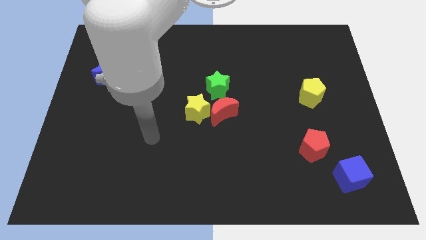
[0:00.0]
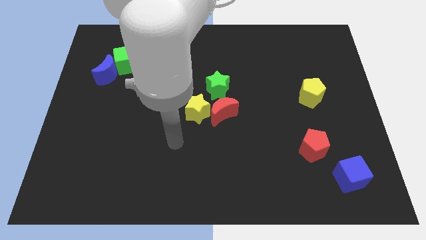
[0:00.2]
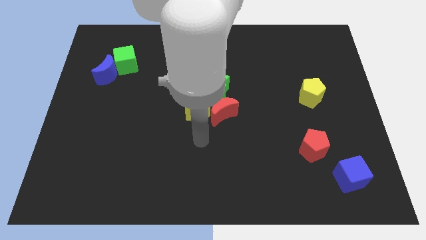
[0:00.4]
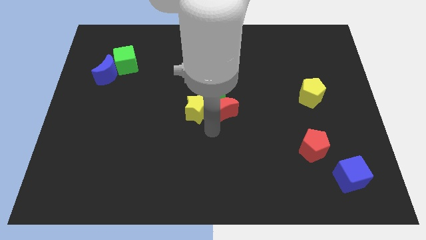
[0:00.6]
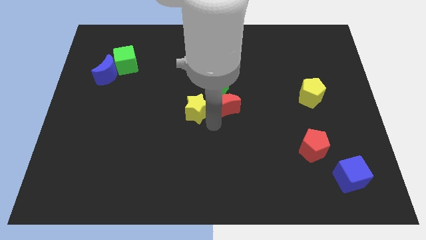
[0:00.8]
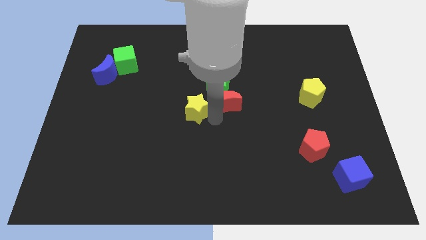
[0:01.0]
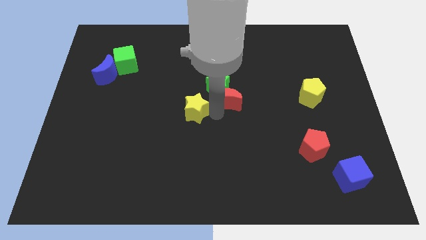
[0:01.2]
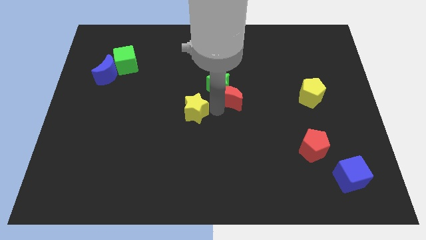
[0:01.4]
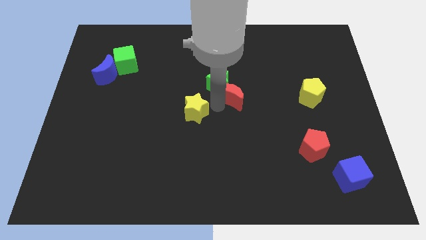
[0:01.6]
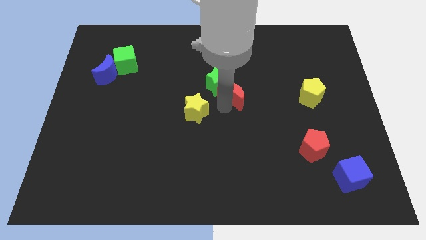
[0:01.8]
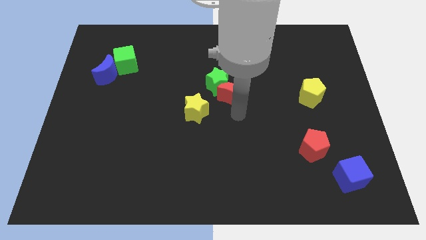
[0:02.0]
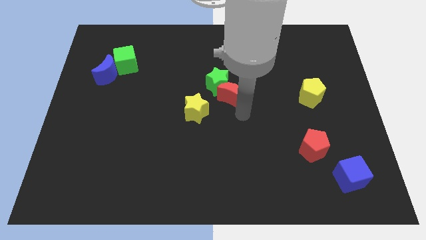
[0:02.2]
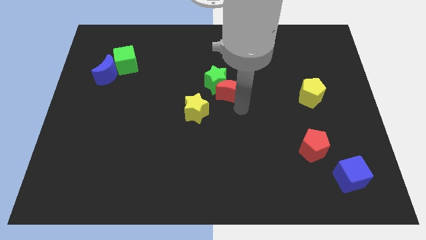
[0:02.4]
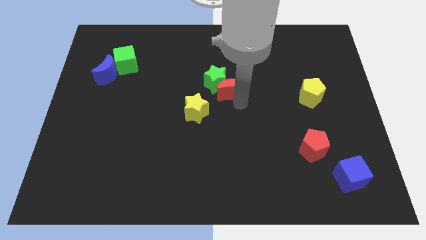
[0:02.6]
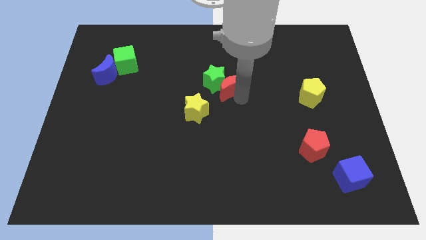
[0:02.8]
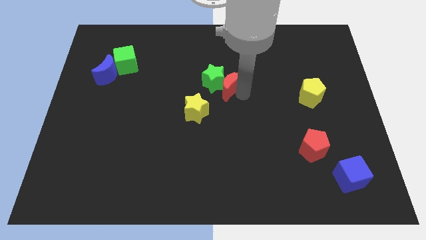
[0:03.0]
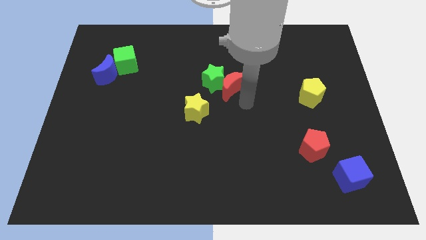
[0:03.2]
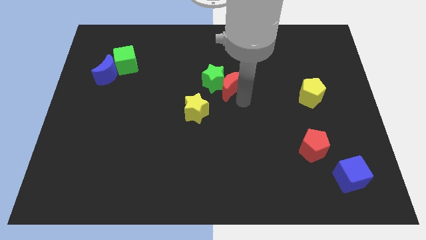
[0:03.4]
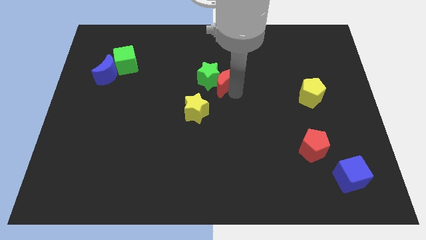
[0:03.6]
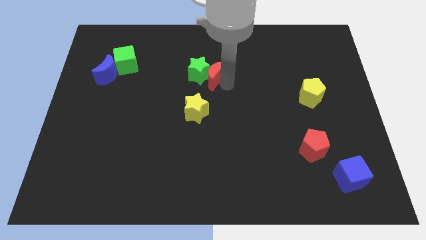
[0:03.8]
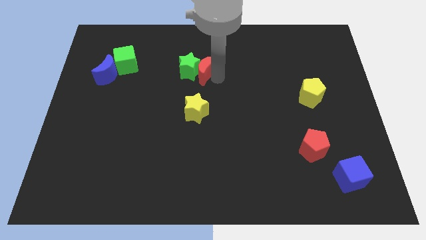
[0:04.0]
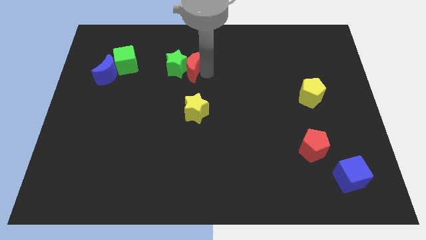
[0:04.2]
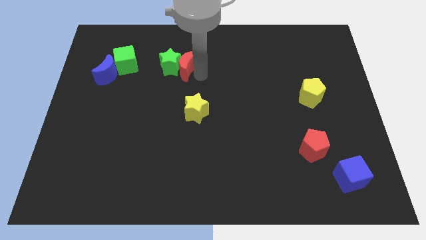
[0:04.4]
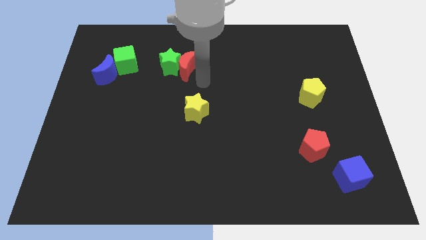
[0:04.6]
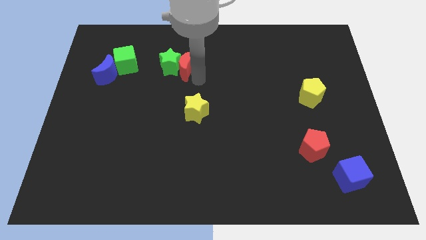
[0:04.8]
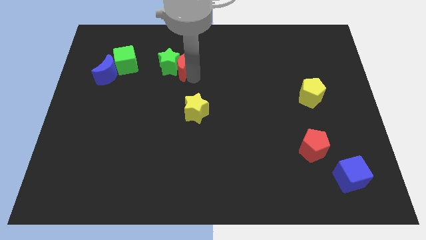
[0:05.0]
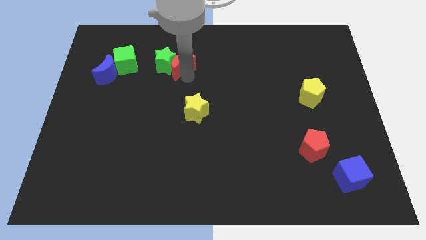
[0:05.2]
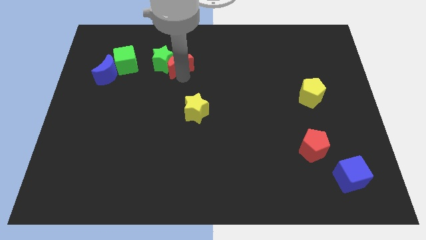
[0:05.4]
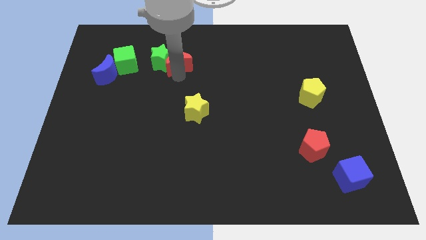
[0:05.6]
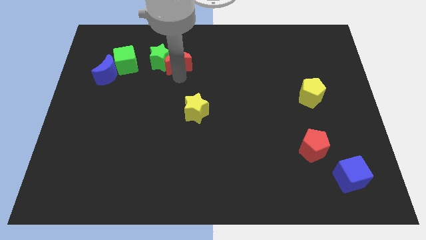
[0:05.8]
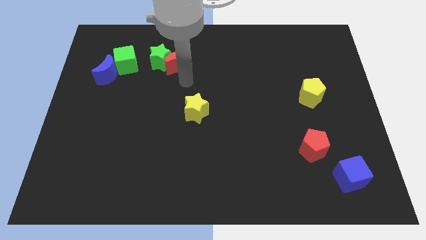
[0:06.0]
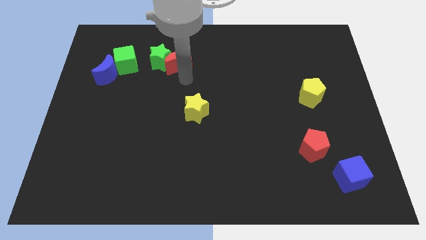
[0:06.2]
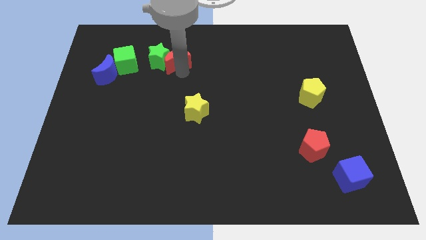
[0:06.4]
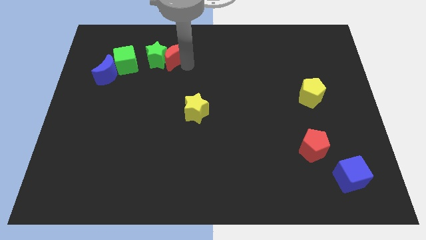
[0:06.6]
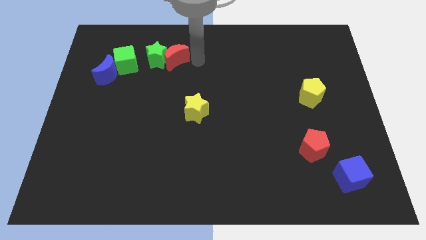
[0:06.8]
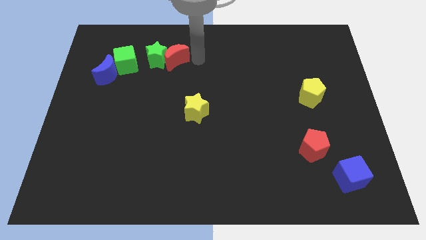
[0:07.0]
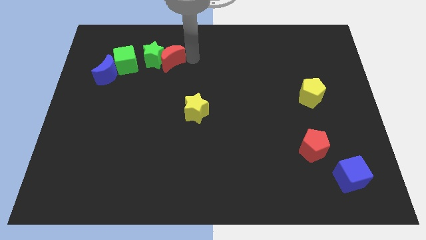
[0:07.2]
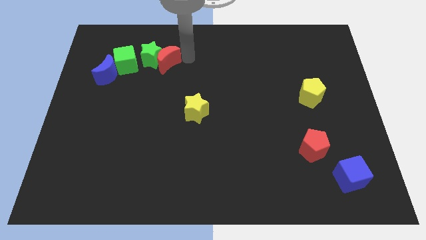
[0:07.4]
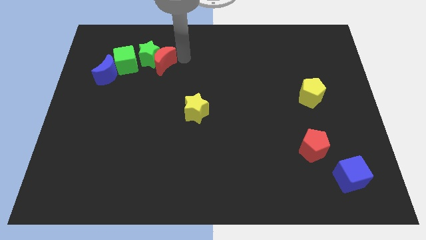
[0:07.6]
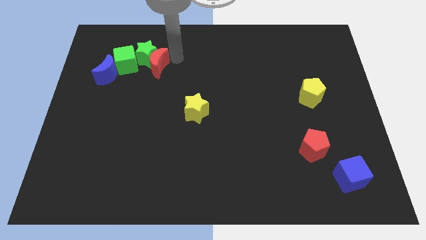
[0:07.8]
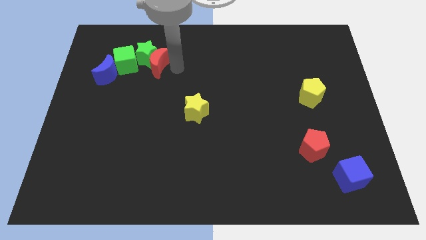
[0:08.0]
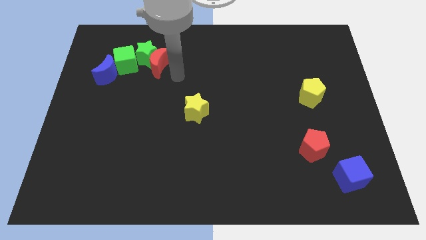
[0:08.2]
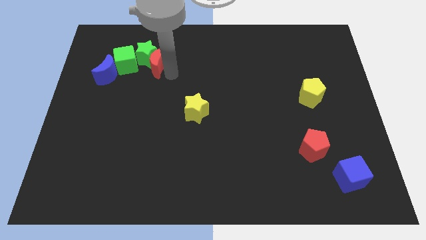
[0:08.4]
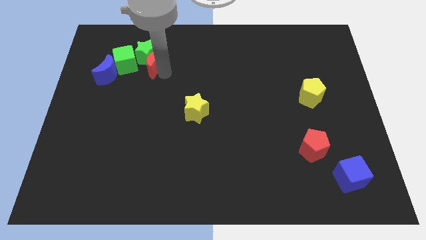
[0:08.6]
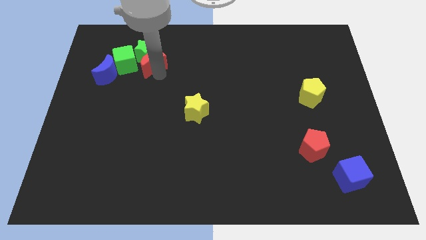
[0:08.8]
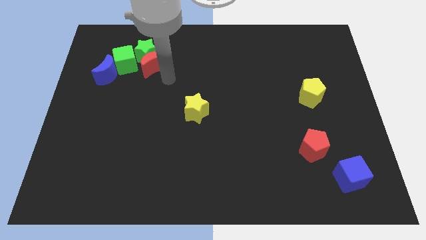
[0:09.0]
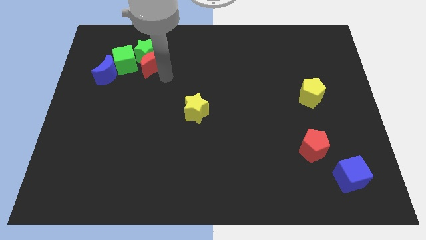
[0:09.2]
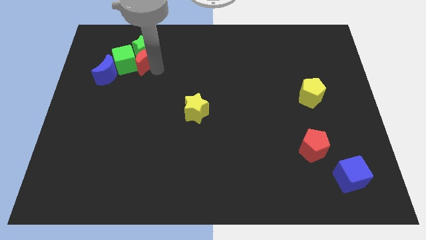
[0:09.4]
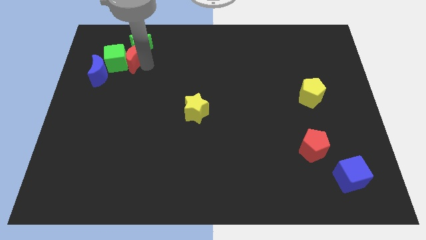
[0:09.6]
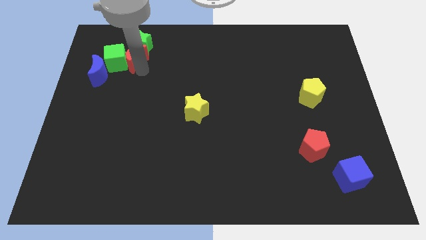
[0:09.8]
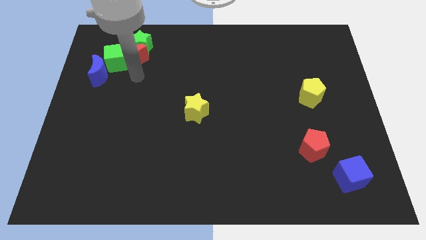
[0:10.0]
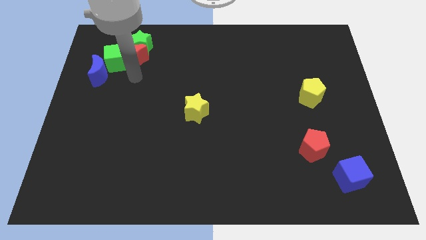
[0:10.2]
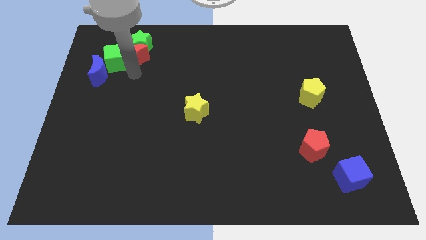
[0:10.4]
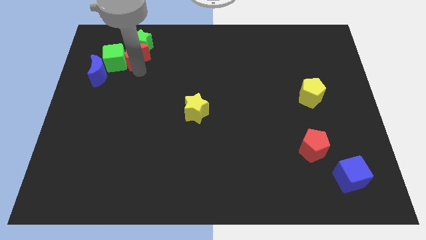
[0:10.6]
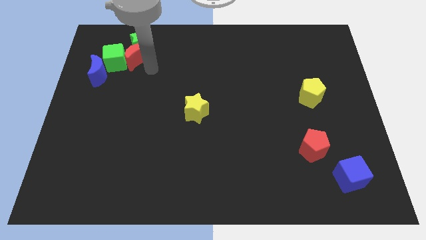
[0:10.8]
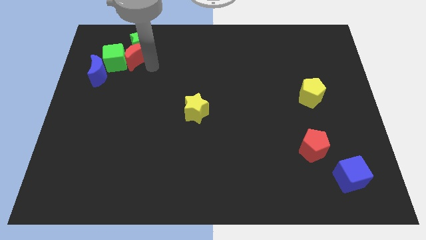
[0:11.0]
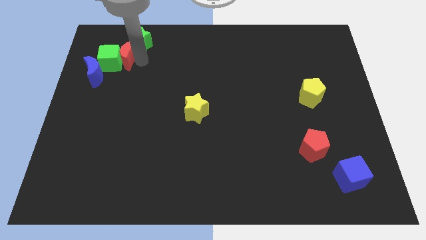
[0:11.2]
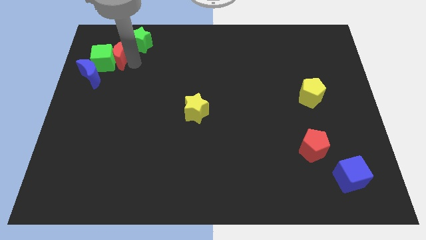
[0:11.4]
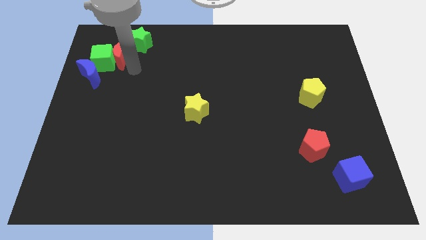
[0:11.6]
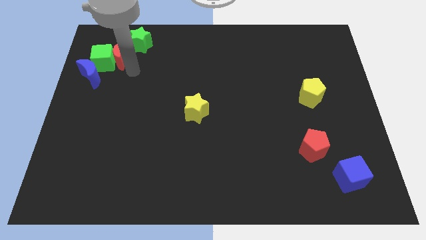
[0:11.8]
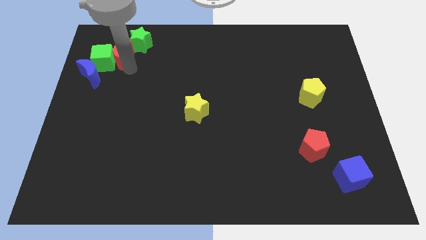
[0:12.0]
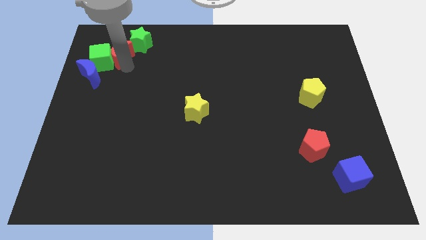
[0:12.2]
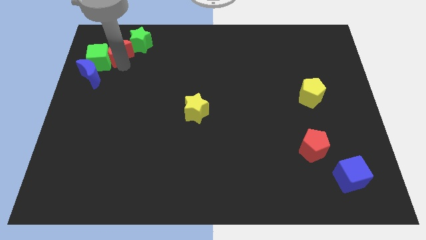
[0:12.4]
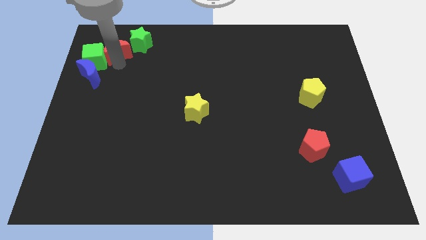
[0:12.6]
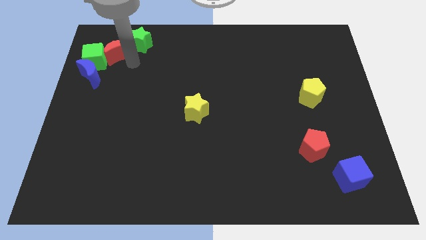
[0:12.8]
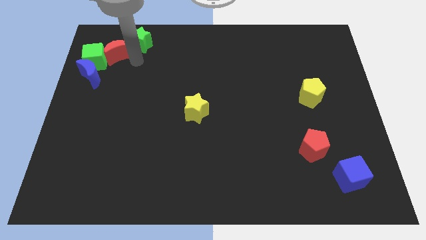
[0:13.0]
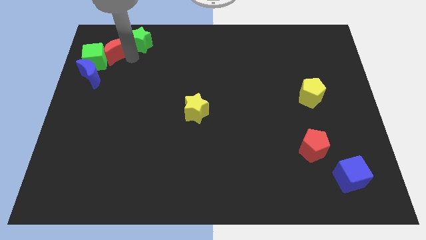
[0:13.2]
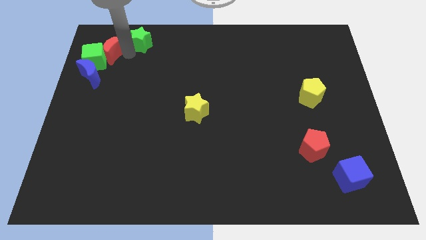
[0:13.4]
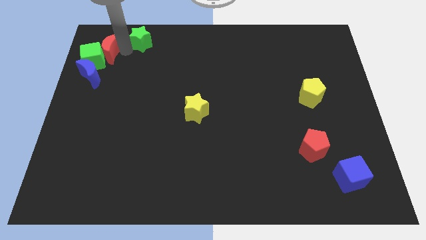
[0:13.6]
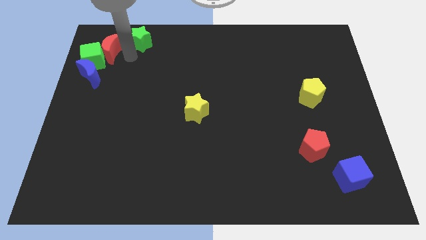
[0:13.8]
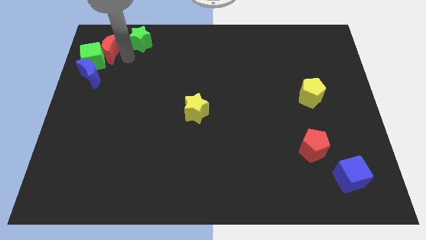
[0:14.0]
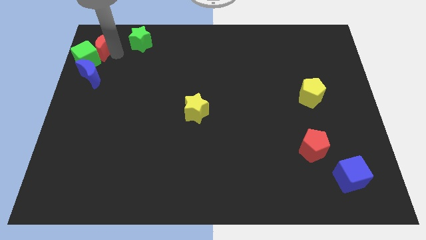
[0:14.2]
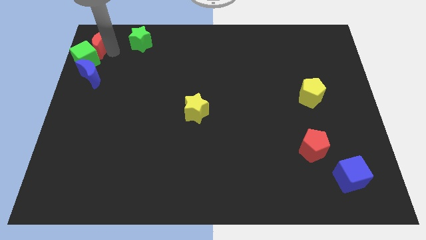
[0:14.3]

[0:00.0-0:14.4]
move the red moon to the top left
